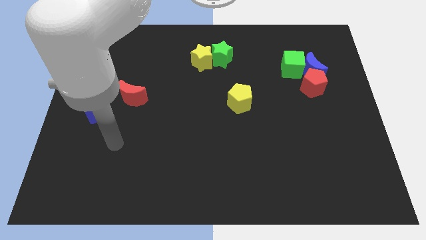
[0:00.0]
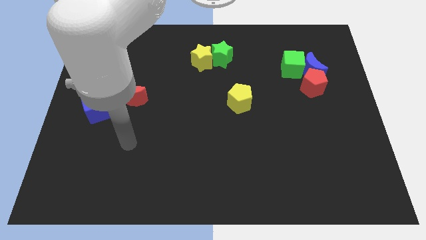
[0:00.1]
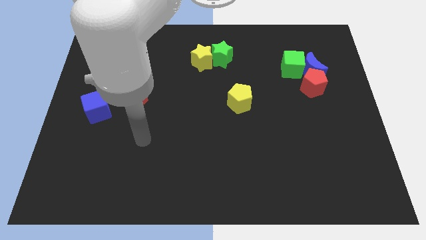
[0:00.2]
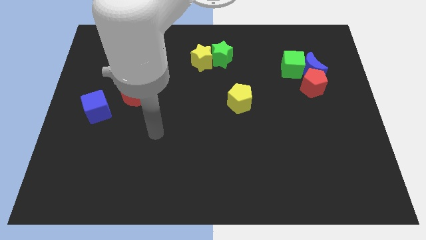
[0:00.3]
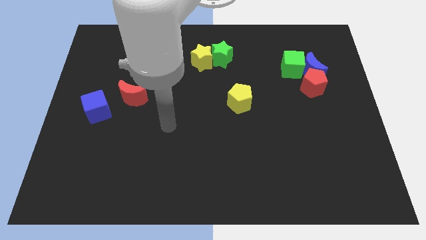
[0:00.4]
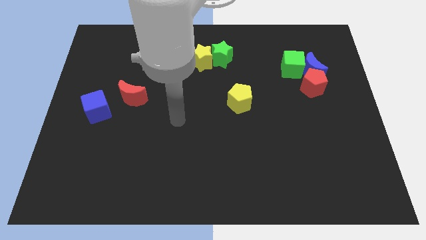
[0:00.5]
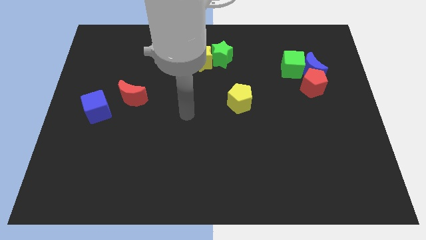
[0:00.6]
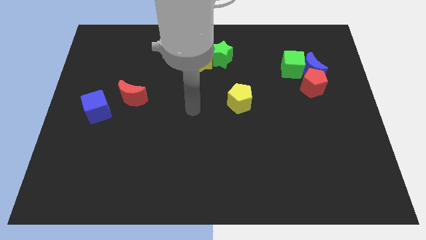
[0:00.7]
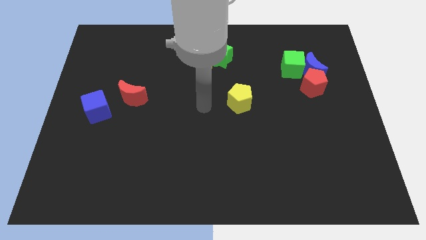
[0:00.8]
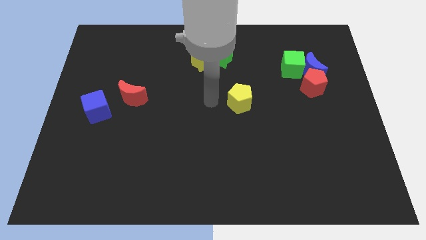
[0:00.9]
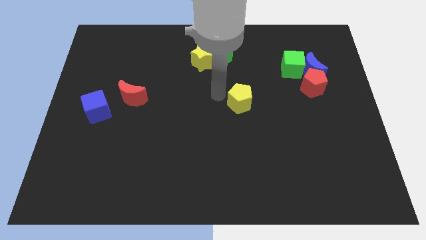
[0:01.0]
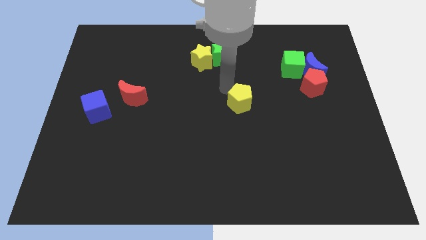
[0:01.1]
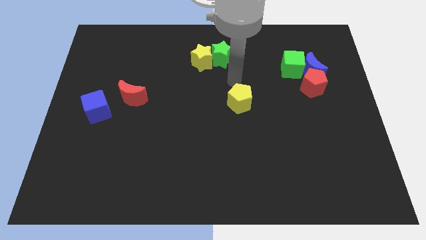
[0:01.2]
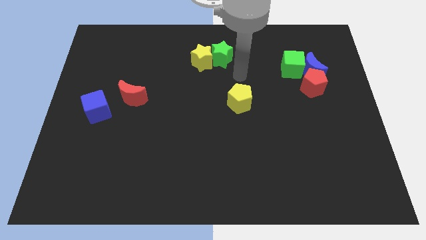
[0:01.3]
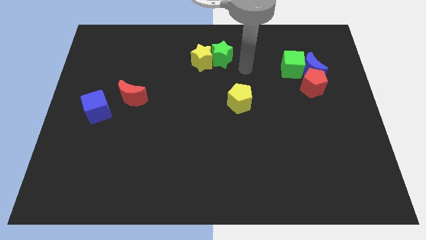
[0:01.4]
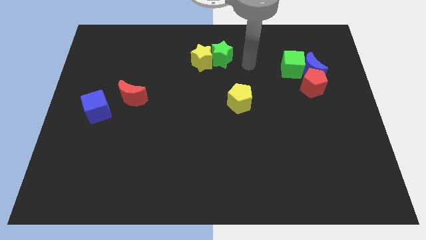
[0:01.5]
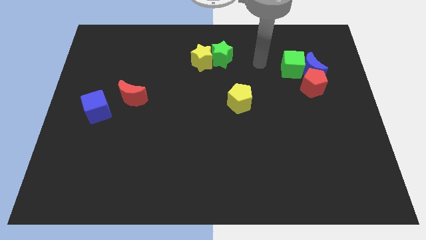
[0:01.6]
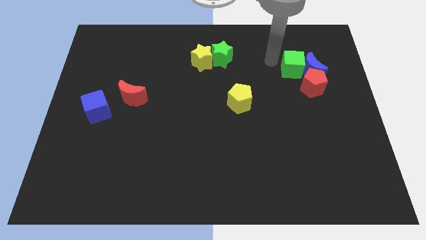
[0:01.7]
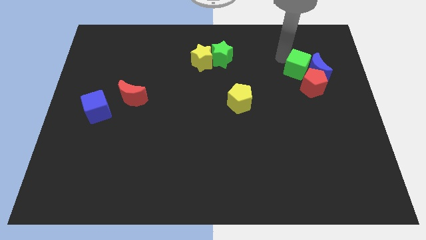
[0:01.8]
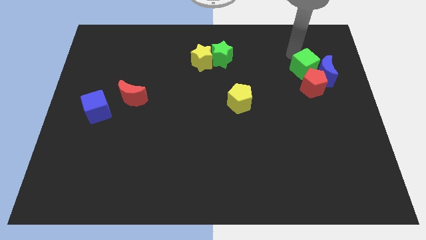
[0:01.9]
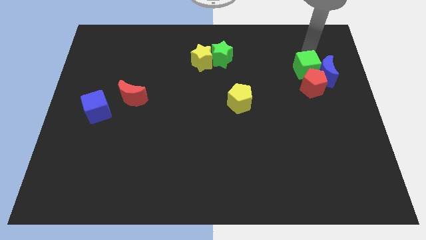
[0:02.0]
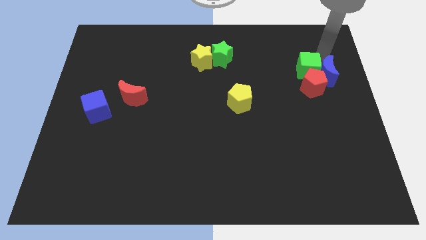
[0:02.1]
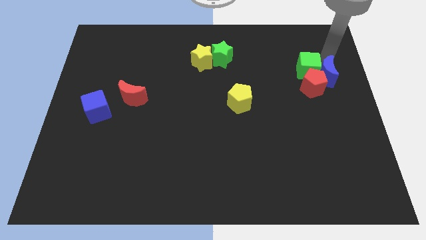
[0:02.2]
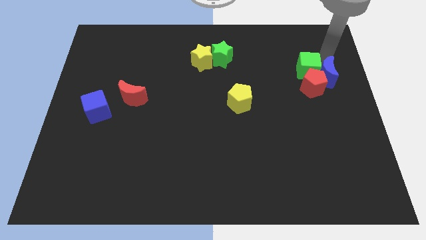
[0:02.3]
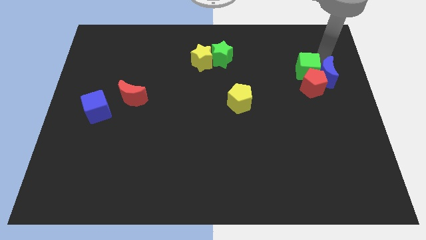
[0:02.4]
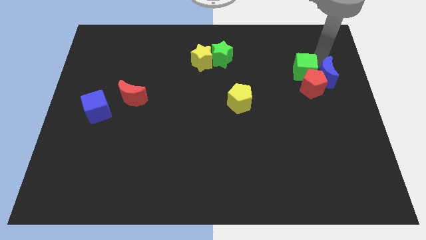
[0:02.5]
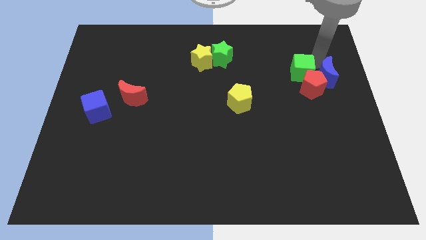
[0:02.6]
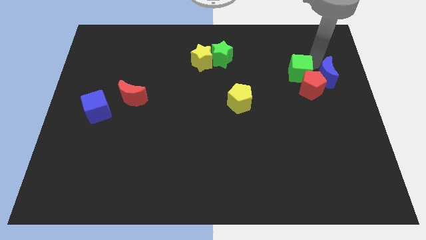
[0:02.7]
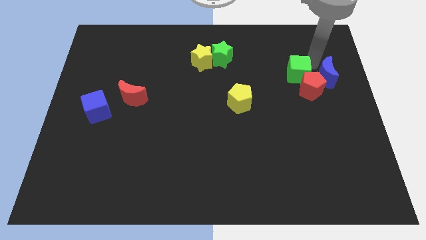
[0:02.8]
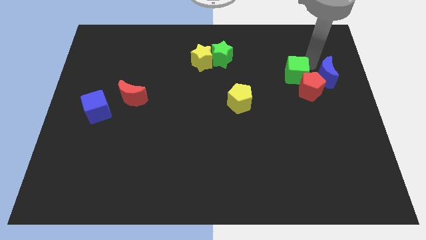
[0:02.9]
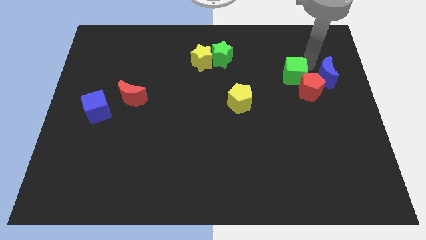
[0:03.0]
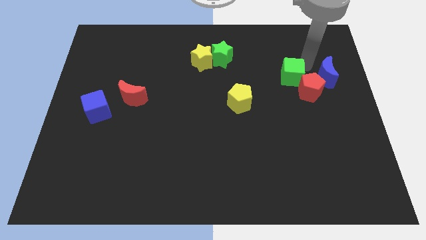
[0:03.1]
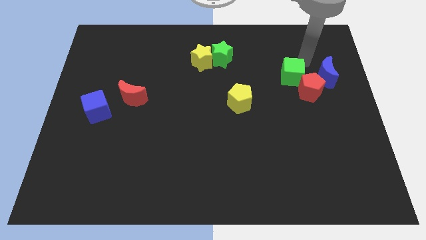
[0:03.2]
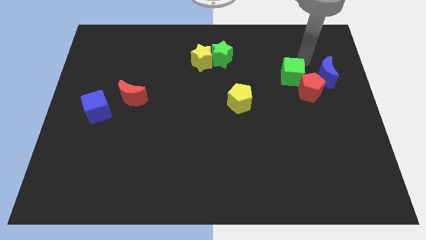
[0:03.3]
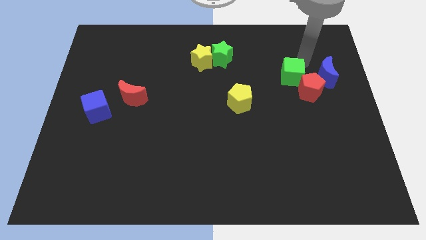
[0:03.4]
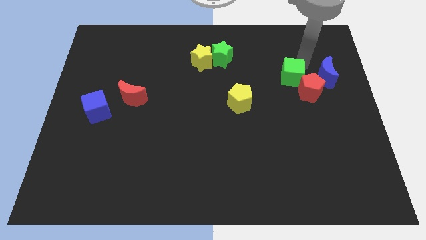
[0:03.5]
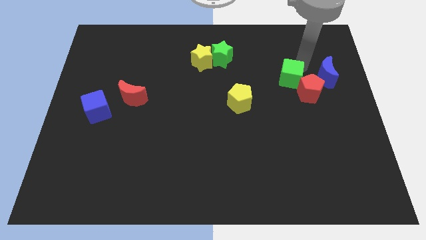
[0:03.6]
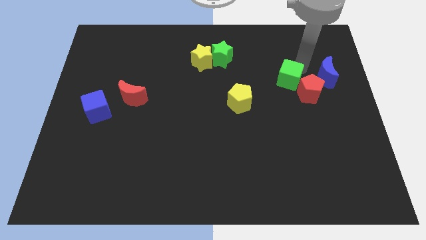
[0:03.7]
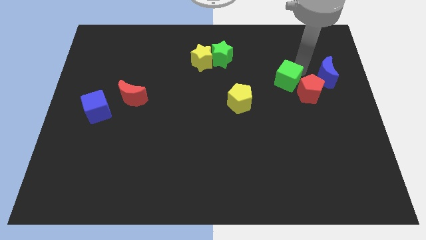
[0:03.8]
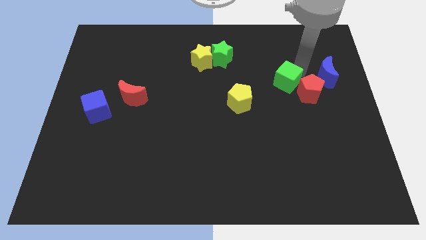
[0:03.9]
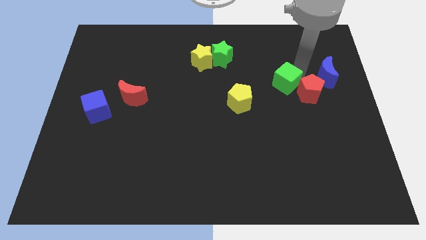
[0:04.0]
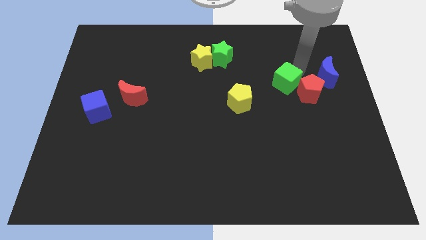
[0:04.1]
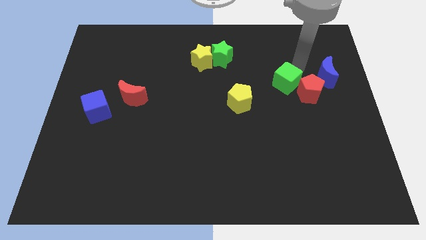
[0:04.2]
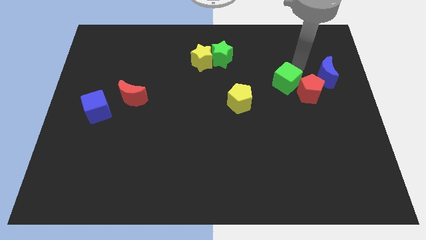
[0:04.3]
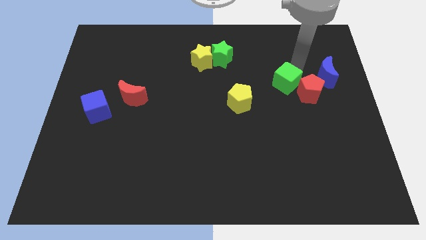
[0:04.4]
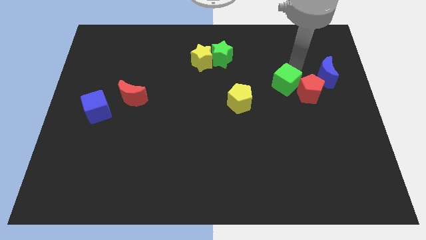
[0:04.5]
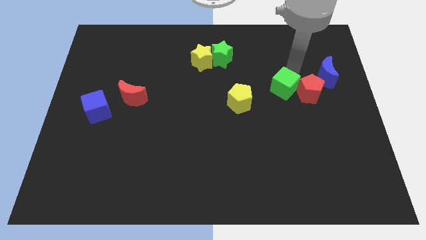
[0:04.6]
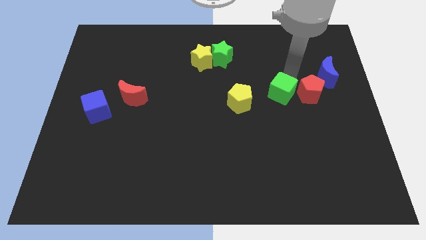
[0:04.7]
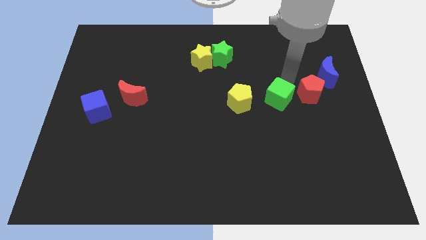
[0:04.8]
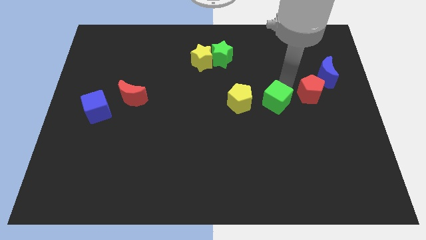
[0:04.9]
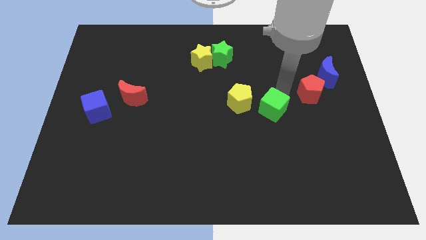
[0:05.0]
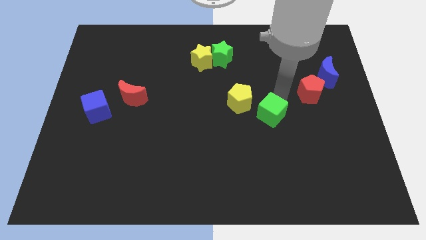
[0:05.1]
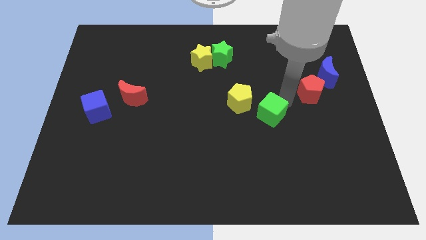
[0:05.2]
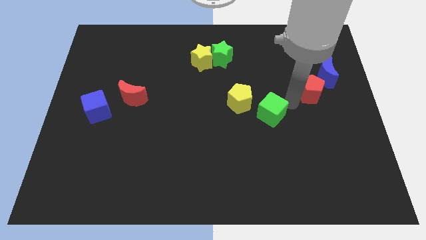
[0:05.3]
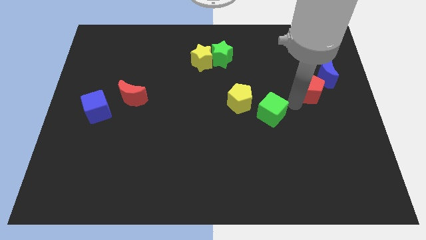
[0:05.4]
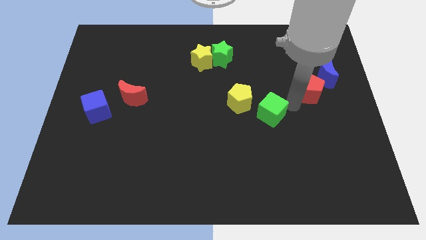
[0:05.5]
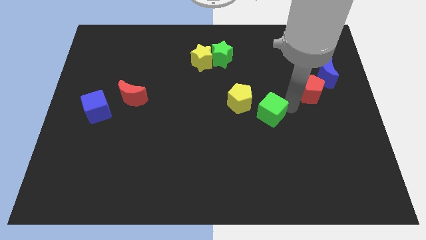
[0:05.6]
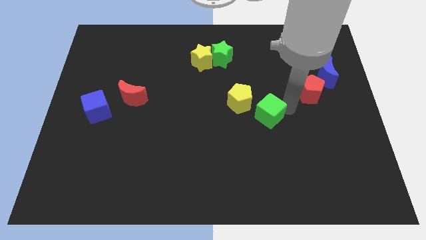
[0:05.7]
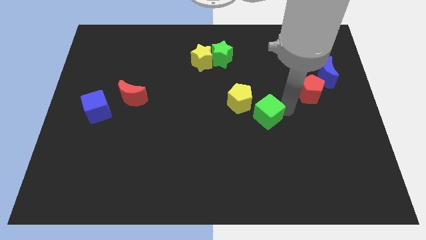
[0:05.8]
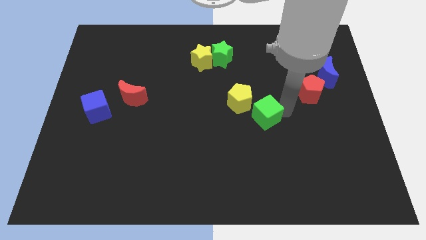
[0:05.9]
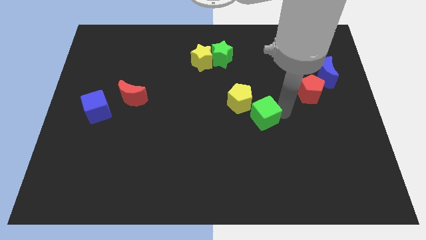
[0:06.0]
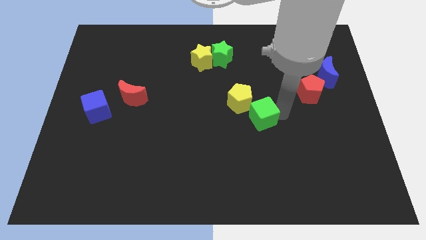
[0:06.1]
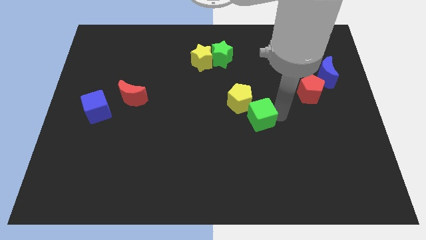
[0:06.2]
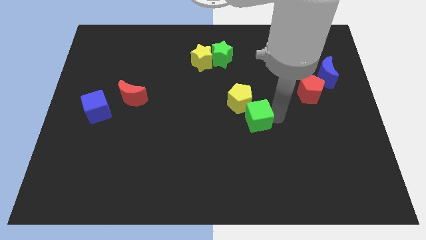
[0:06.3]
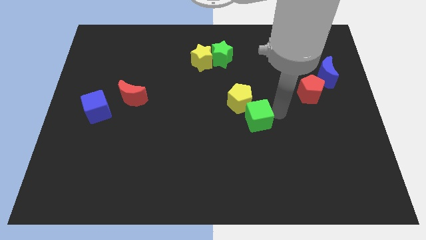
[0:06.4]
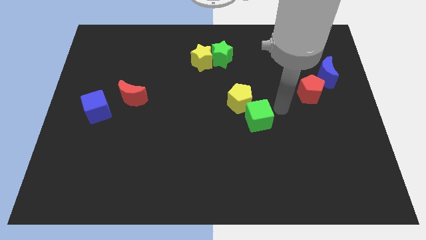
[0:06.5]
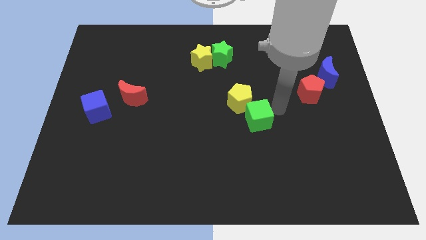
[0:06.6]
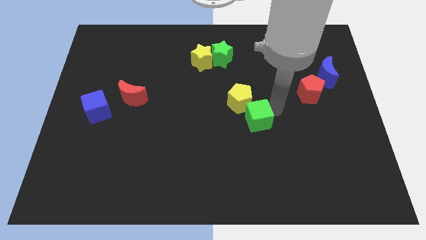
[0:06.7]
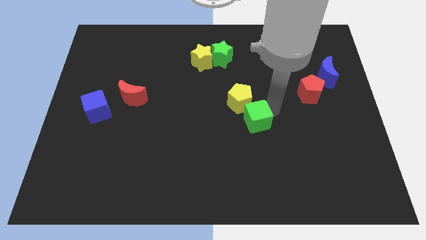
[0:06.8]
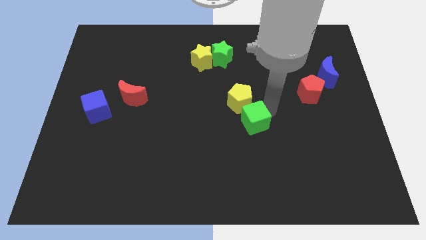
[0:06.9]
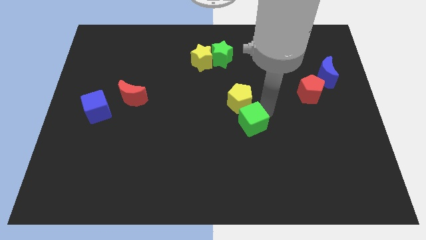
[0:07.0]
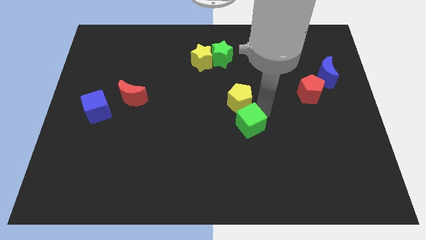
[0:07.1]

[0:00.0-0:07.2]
push the green cube diagonally downwards and left

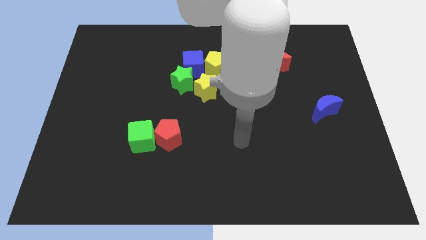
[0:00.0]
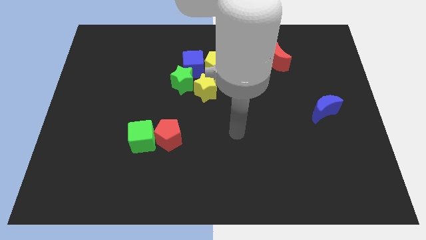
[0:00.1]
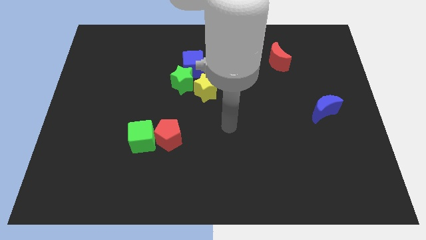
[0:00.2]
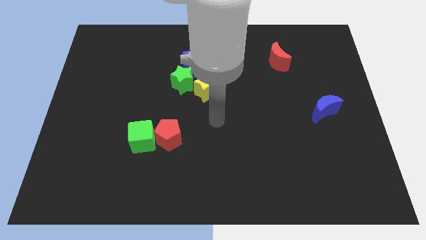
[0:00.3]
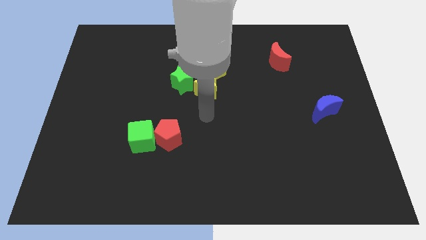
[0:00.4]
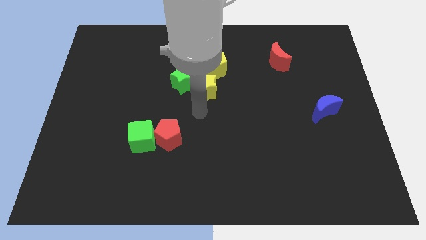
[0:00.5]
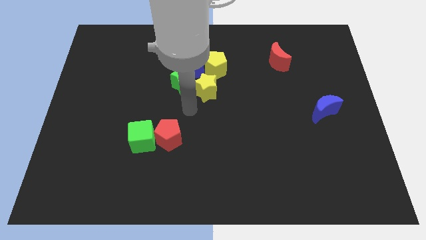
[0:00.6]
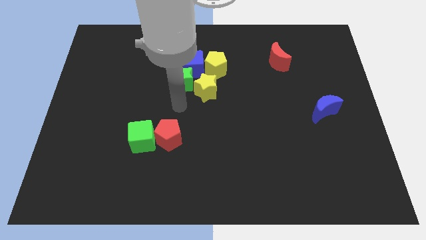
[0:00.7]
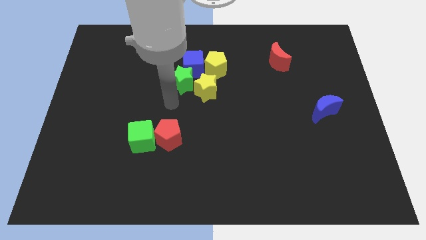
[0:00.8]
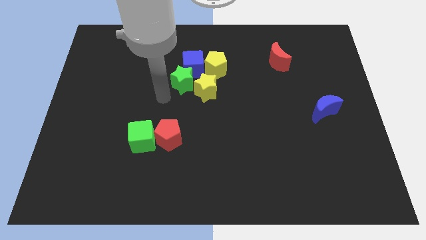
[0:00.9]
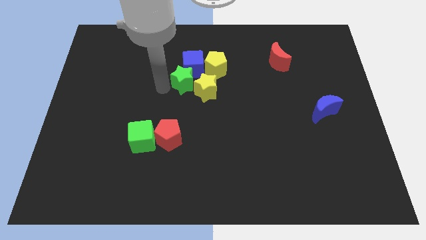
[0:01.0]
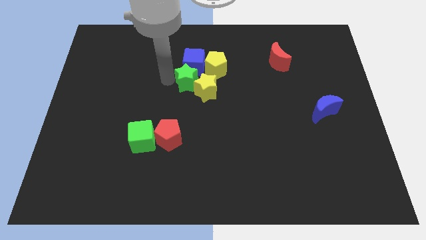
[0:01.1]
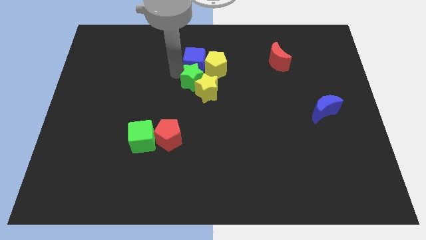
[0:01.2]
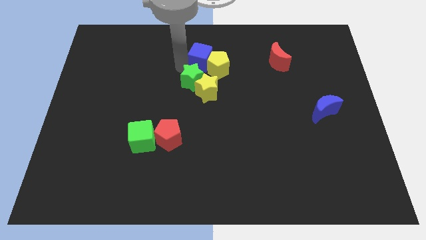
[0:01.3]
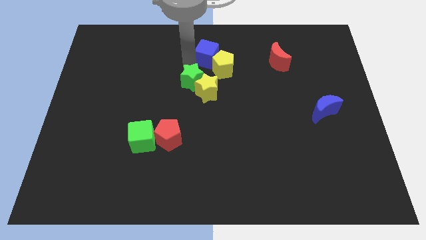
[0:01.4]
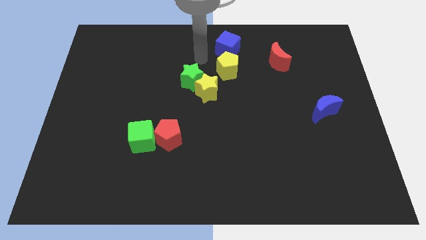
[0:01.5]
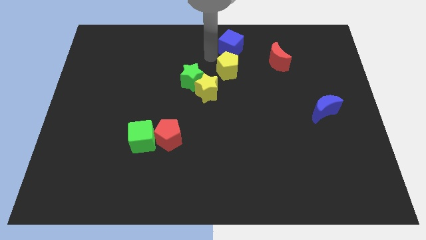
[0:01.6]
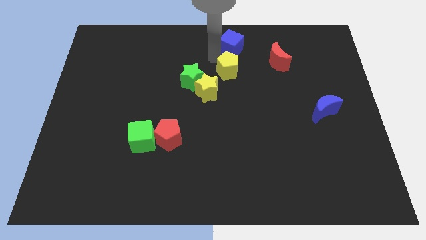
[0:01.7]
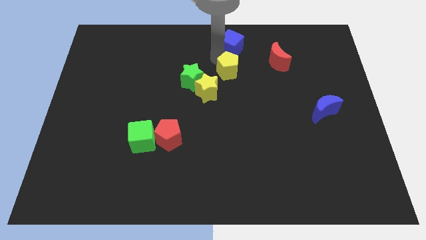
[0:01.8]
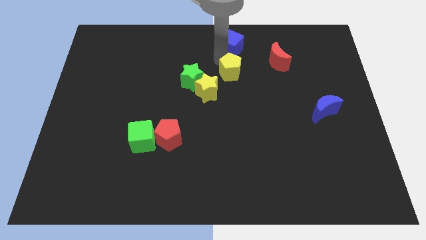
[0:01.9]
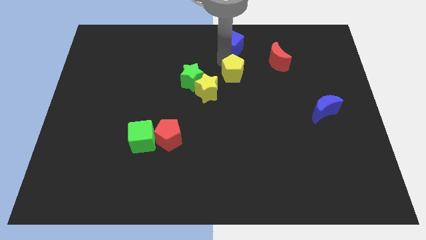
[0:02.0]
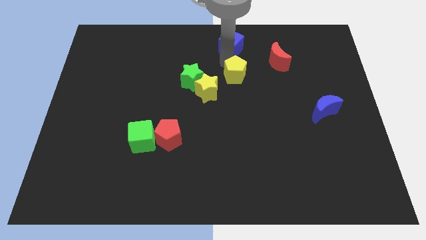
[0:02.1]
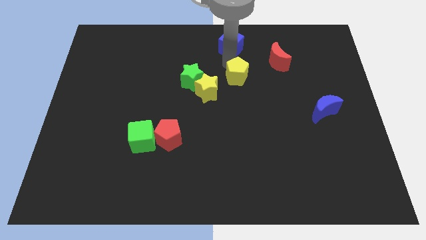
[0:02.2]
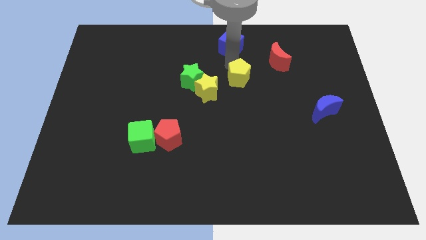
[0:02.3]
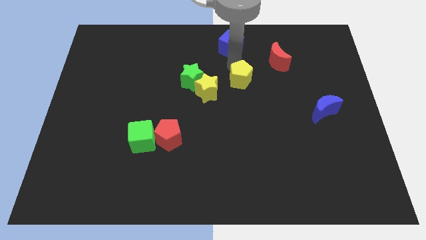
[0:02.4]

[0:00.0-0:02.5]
slightly push the yellow pentagon diagonally down and right
